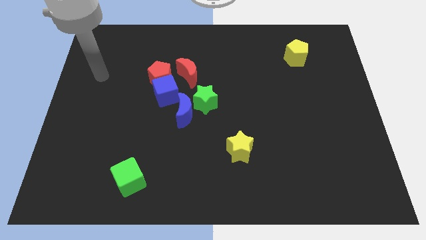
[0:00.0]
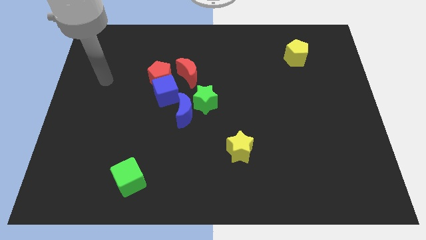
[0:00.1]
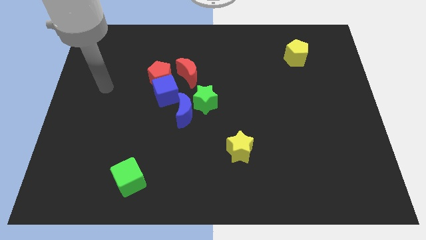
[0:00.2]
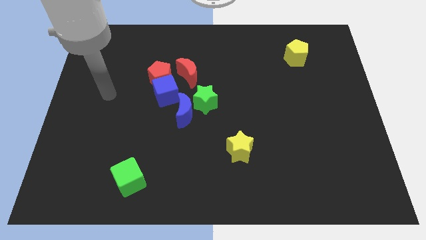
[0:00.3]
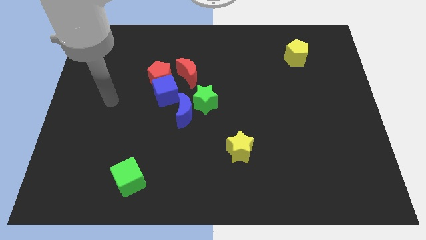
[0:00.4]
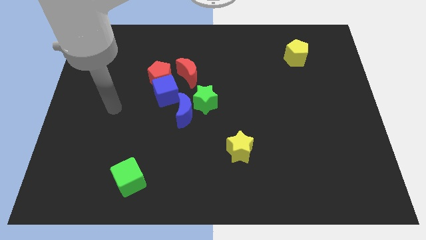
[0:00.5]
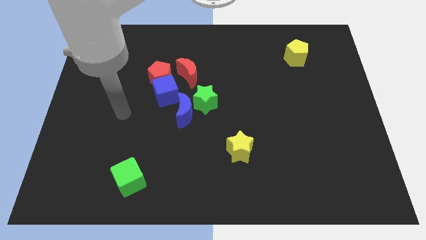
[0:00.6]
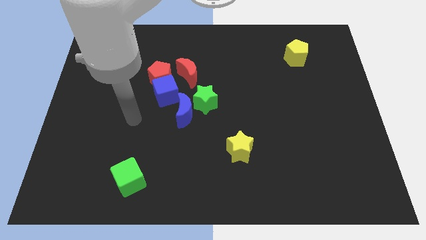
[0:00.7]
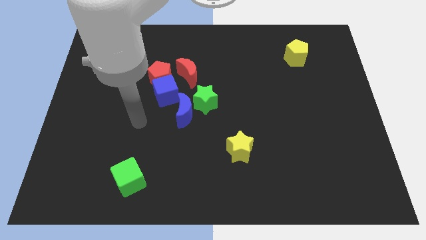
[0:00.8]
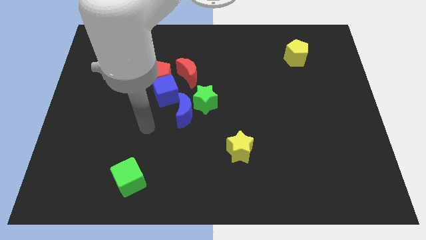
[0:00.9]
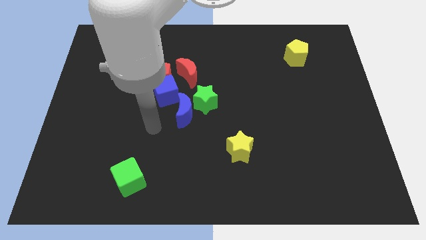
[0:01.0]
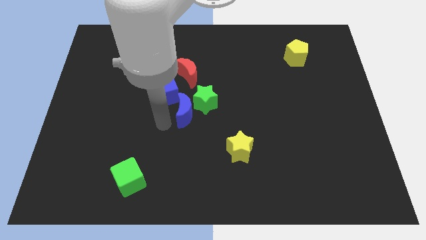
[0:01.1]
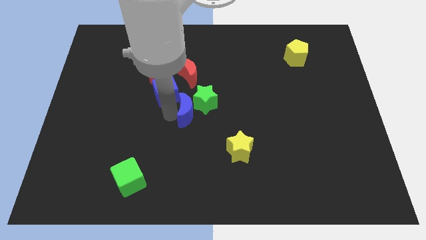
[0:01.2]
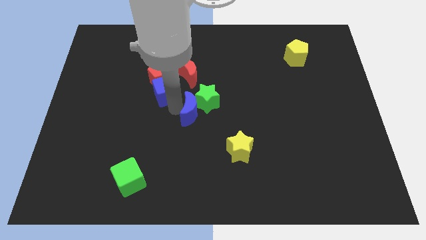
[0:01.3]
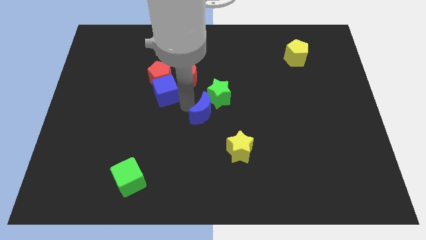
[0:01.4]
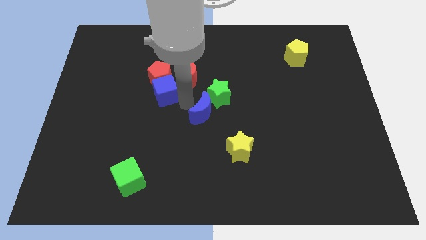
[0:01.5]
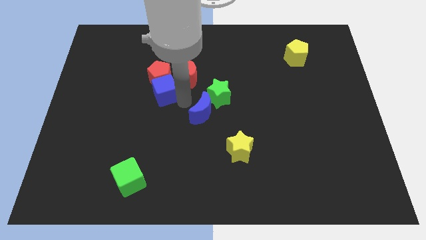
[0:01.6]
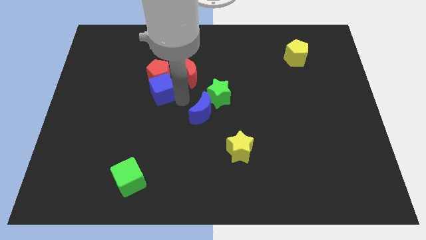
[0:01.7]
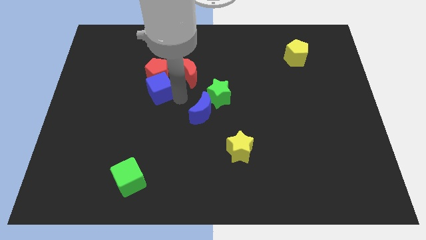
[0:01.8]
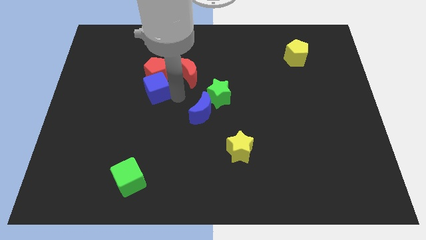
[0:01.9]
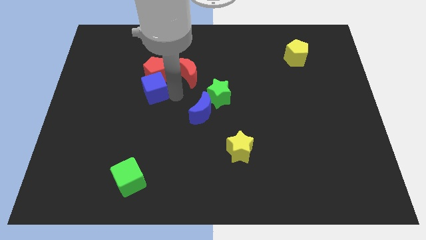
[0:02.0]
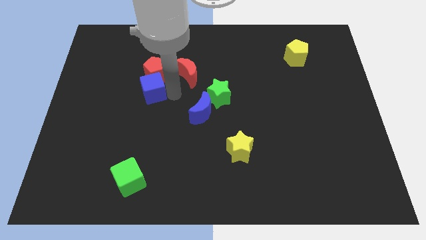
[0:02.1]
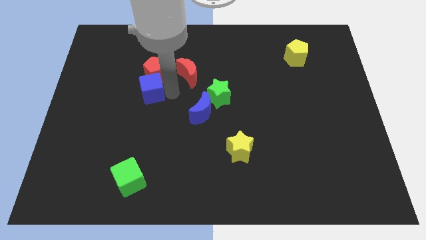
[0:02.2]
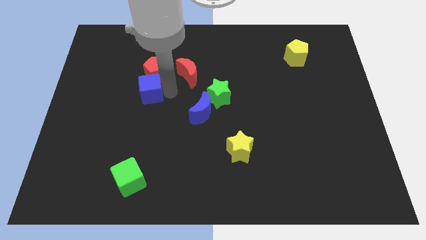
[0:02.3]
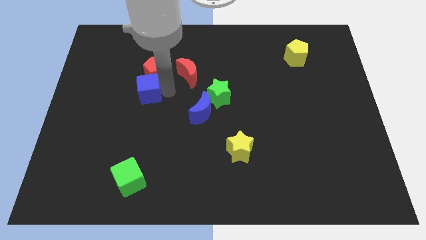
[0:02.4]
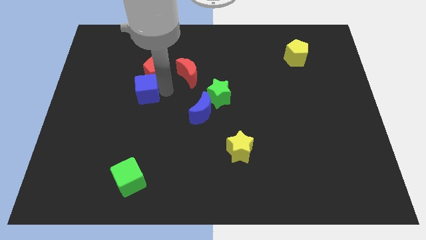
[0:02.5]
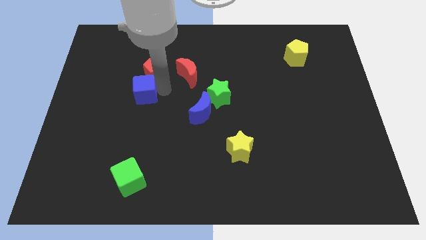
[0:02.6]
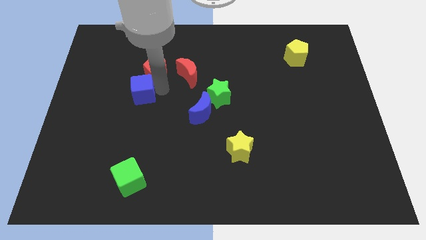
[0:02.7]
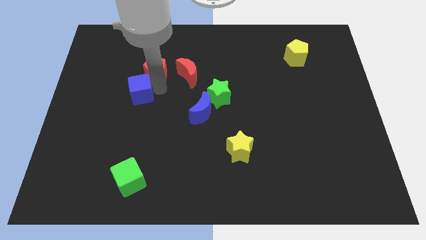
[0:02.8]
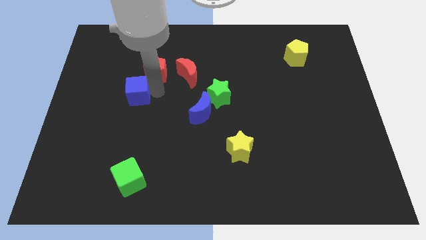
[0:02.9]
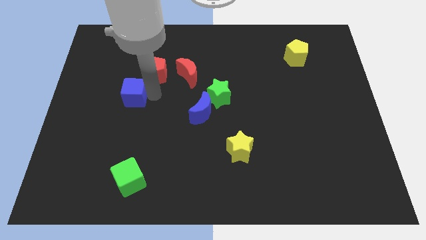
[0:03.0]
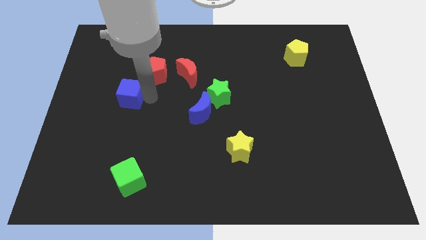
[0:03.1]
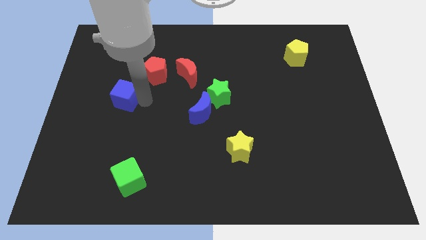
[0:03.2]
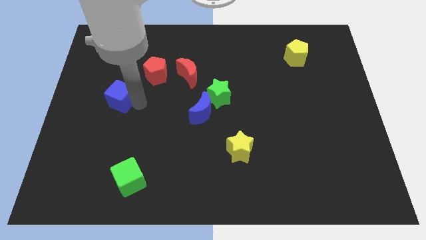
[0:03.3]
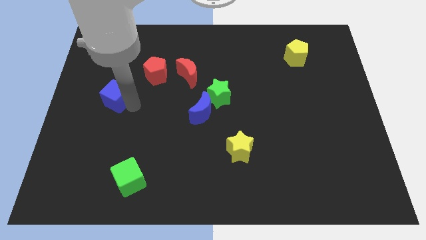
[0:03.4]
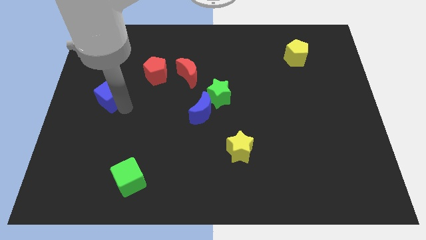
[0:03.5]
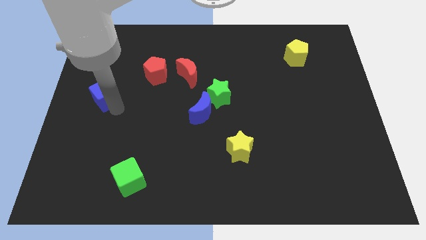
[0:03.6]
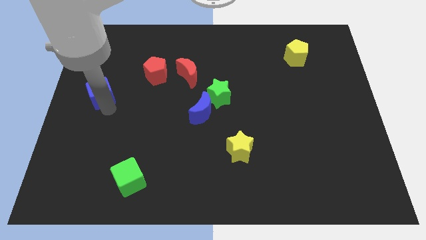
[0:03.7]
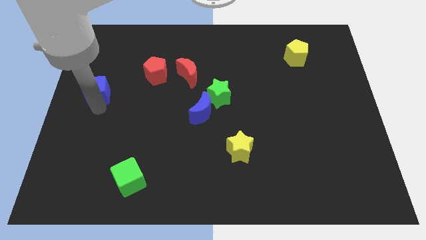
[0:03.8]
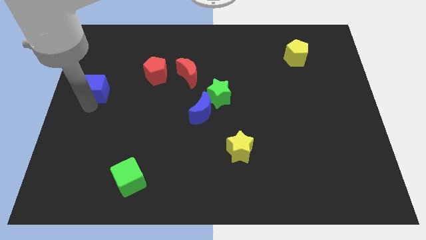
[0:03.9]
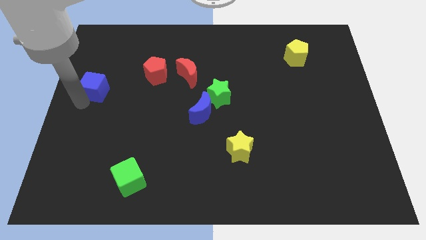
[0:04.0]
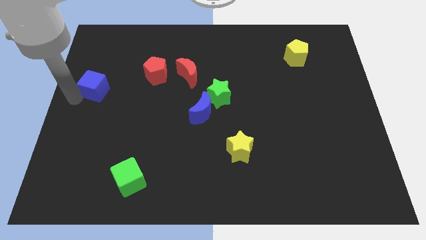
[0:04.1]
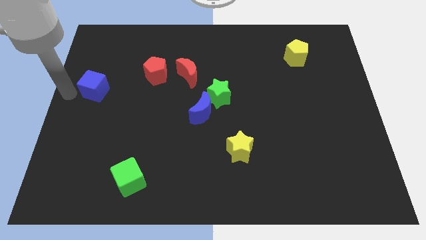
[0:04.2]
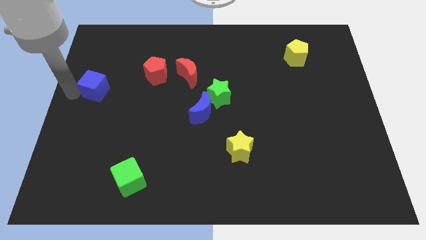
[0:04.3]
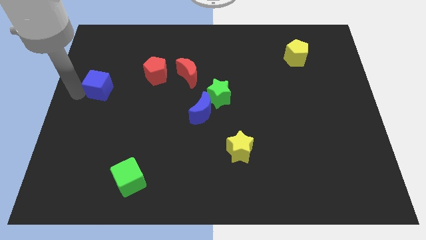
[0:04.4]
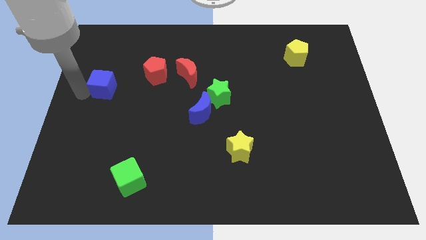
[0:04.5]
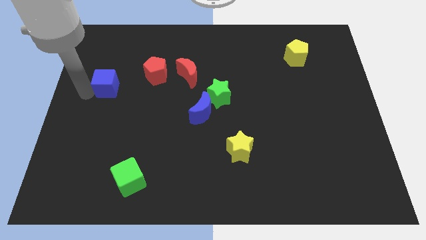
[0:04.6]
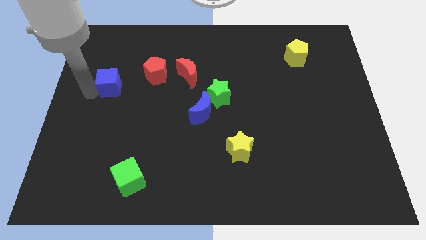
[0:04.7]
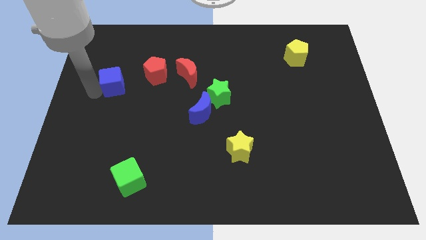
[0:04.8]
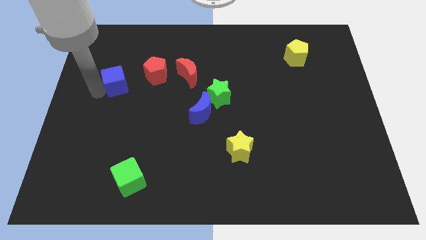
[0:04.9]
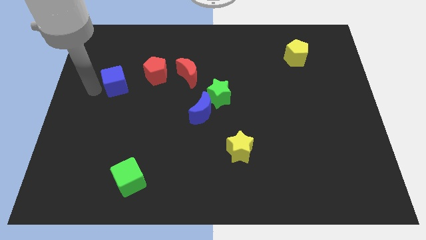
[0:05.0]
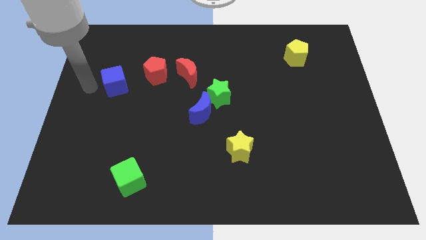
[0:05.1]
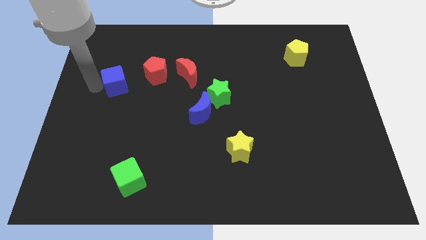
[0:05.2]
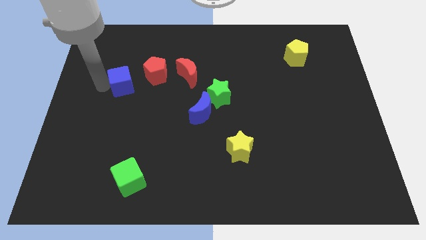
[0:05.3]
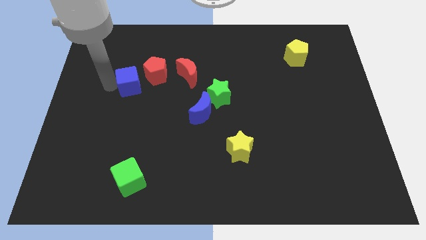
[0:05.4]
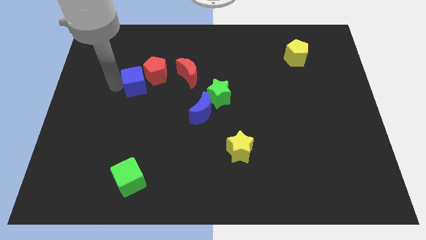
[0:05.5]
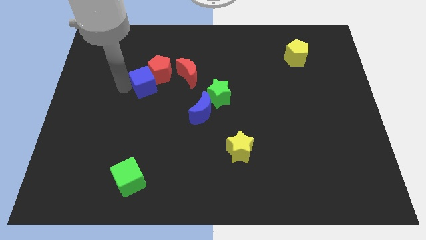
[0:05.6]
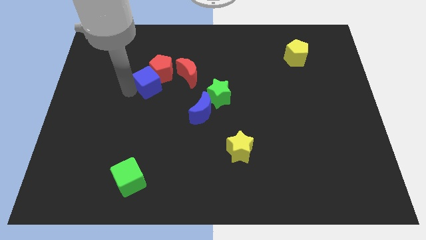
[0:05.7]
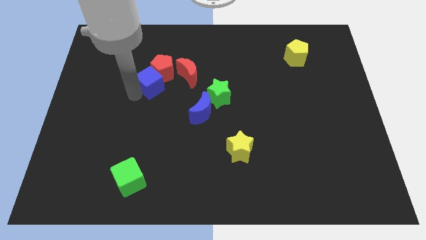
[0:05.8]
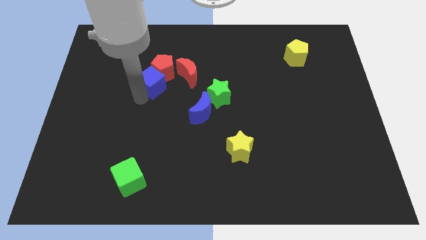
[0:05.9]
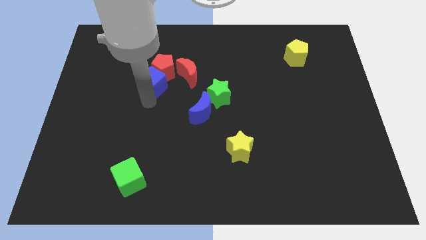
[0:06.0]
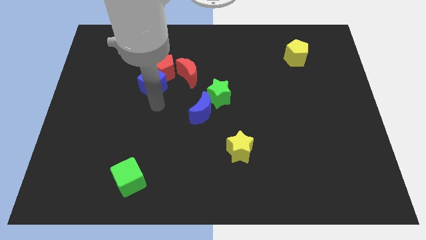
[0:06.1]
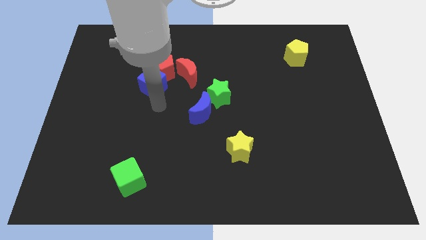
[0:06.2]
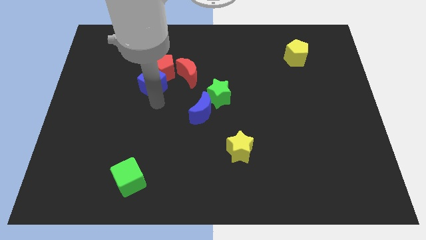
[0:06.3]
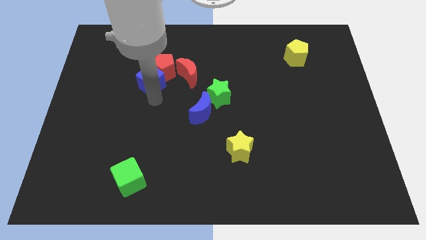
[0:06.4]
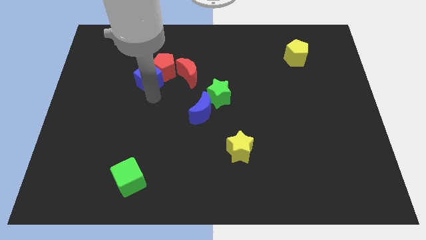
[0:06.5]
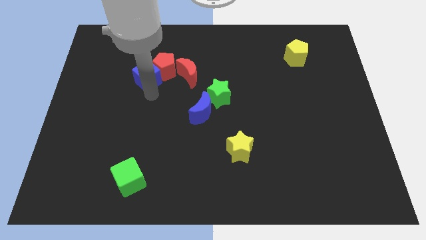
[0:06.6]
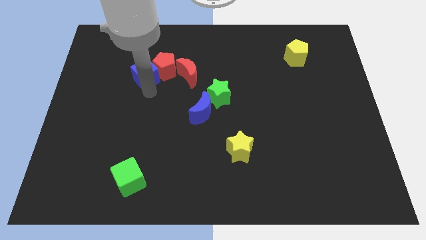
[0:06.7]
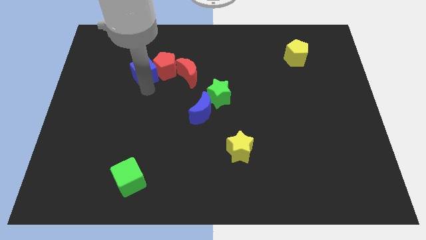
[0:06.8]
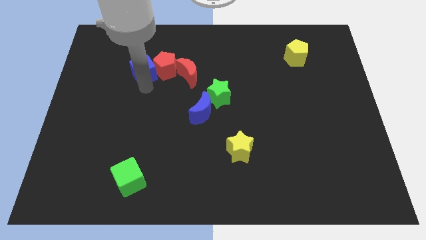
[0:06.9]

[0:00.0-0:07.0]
slide the blue cube to the top left of the red pentagon

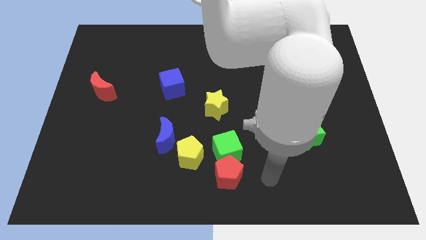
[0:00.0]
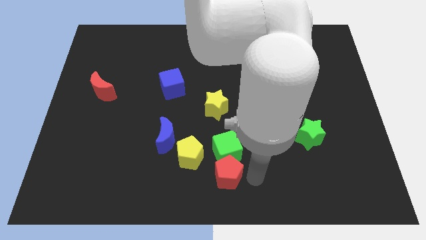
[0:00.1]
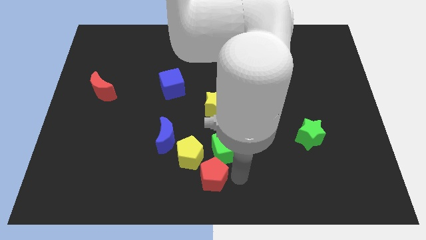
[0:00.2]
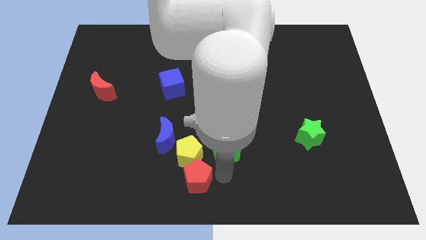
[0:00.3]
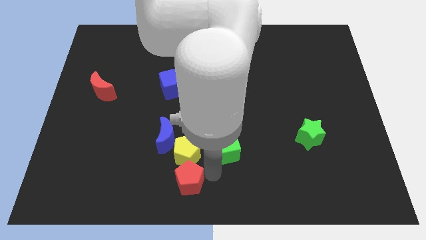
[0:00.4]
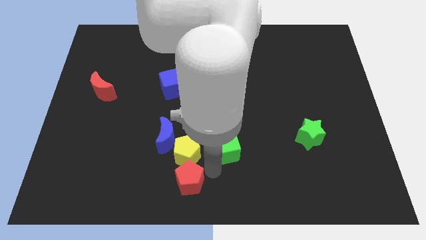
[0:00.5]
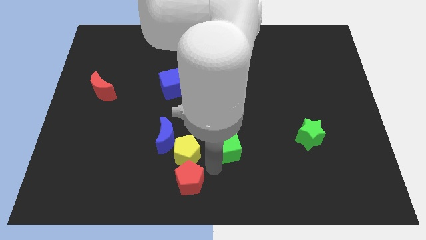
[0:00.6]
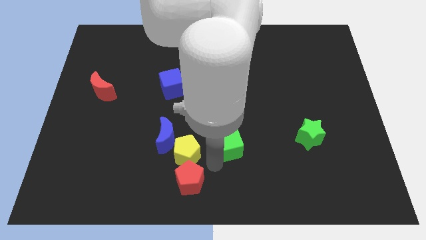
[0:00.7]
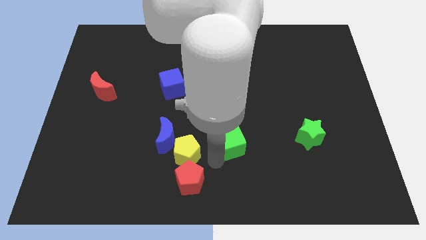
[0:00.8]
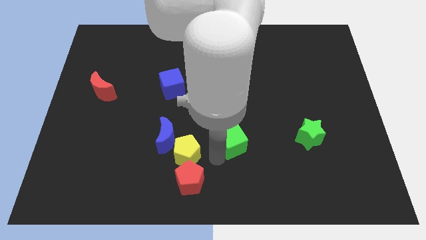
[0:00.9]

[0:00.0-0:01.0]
push the green cube to the bottom right side of the yellow star
